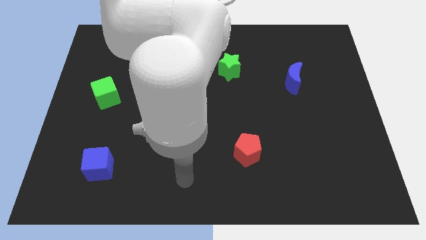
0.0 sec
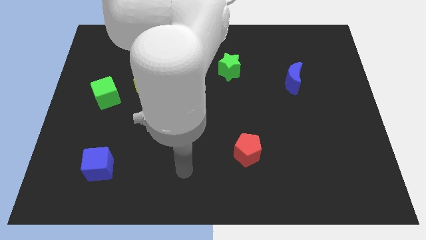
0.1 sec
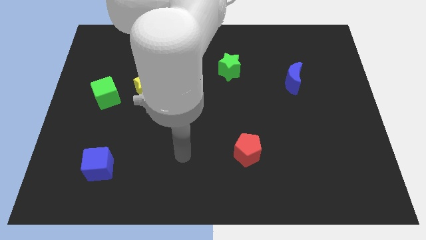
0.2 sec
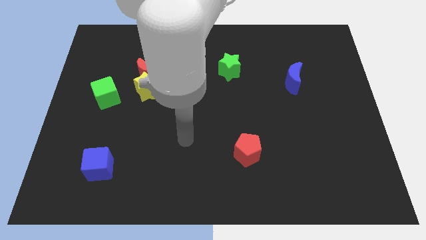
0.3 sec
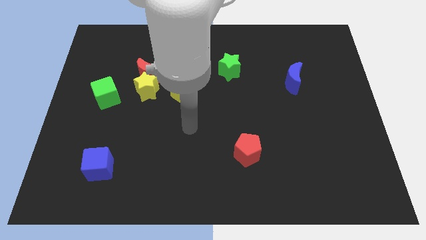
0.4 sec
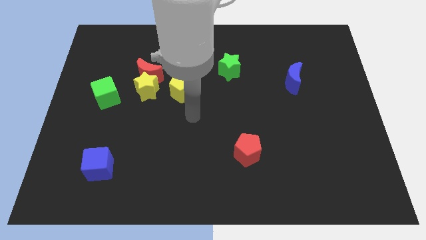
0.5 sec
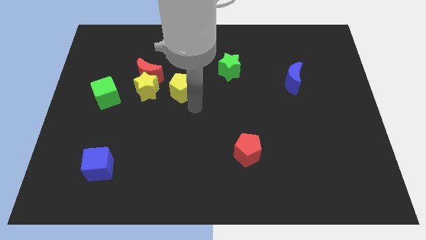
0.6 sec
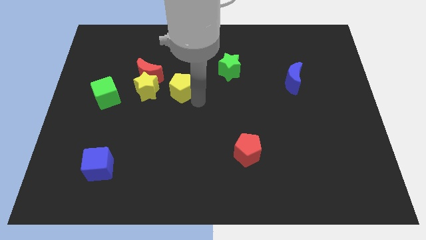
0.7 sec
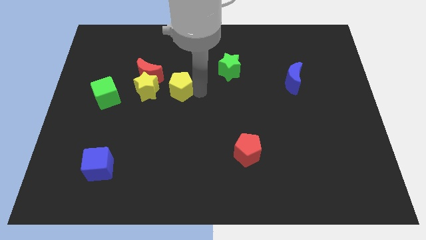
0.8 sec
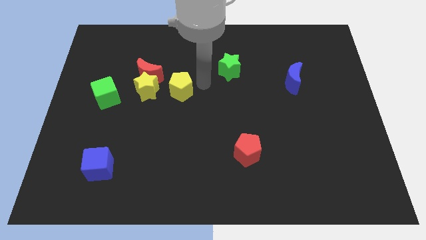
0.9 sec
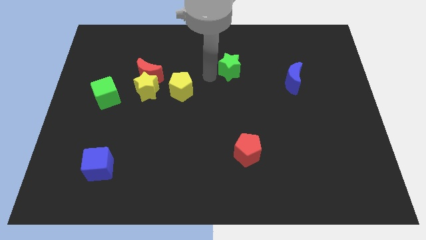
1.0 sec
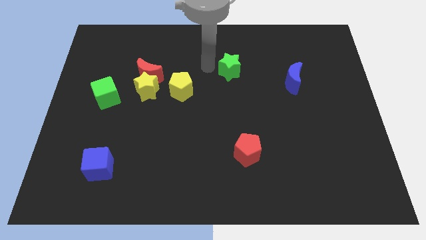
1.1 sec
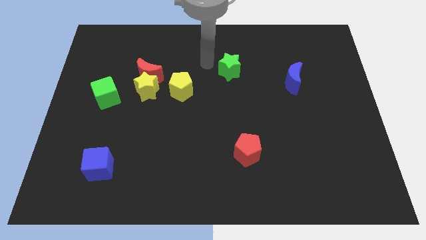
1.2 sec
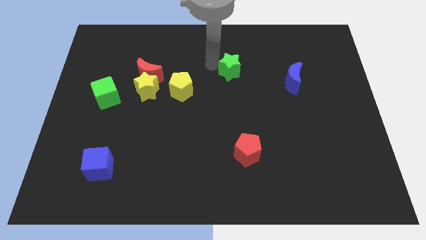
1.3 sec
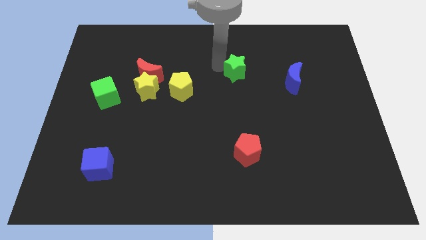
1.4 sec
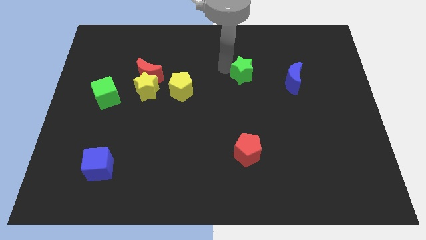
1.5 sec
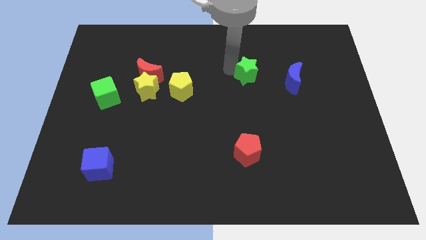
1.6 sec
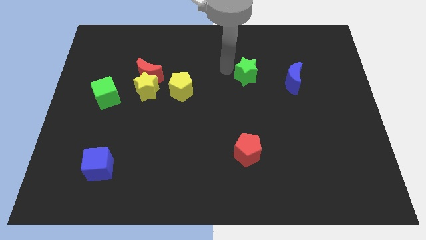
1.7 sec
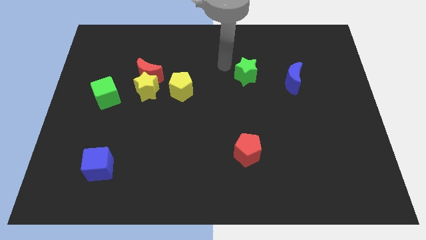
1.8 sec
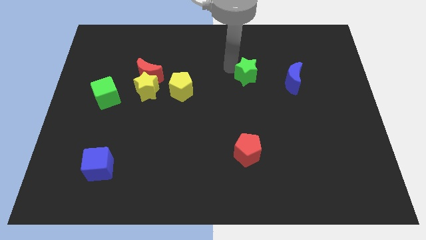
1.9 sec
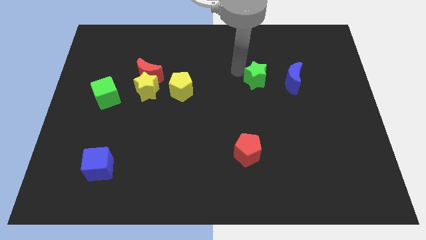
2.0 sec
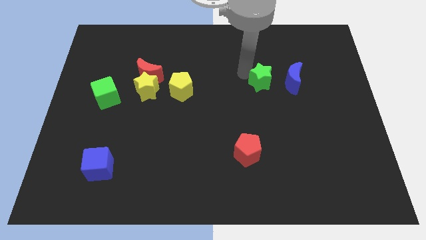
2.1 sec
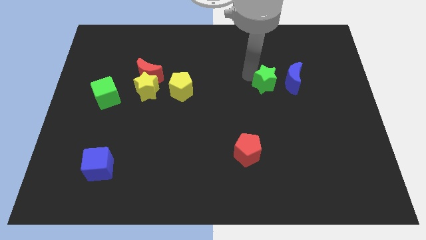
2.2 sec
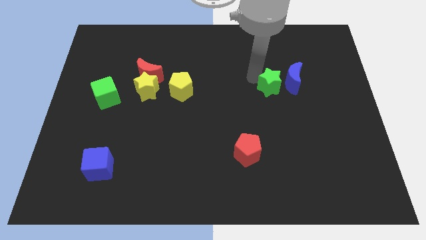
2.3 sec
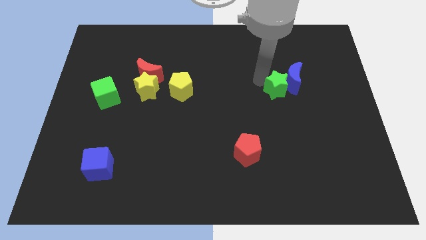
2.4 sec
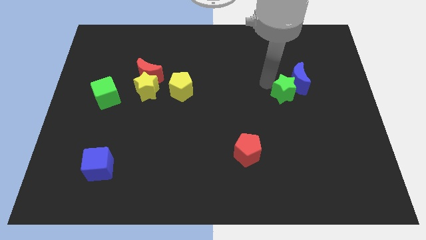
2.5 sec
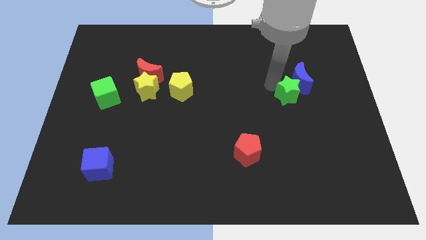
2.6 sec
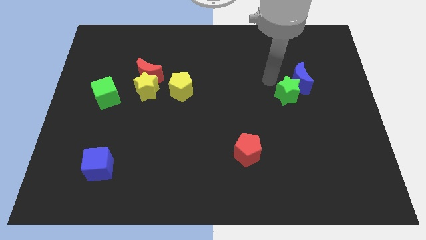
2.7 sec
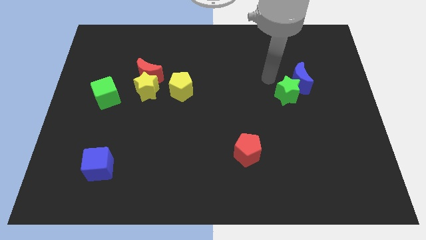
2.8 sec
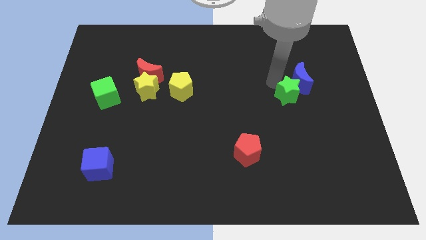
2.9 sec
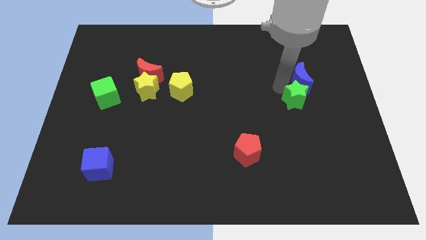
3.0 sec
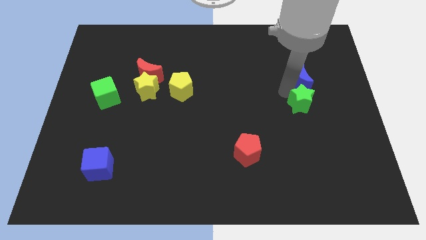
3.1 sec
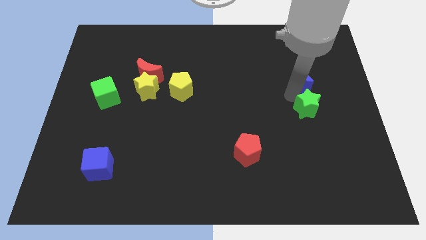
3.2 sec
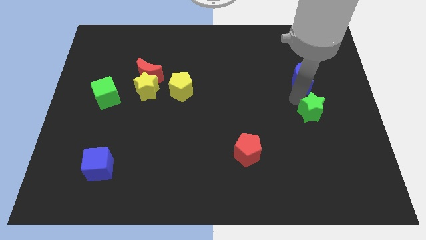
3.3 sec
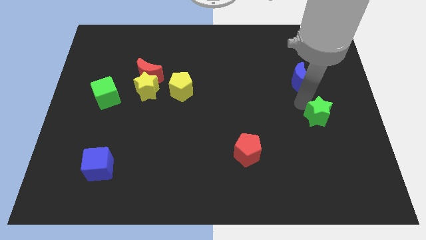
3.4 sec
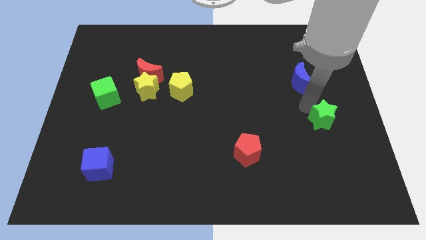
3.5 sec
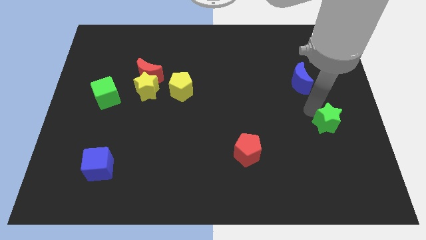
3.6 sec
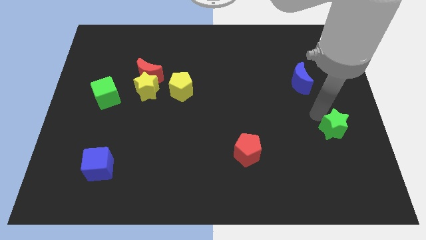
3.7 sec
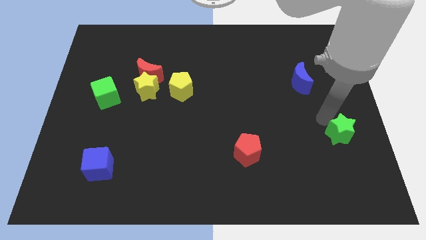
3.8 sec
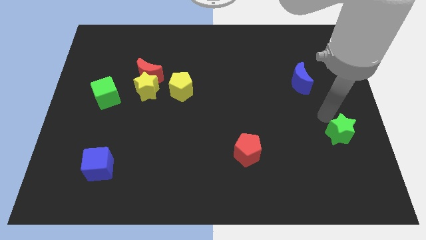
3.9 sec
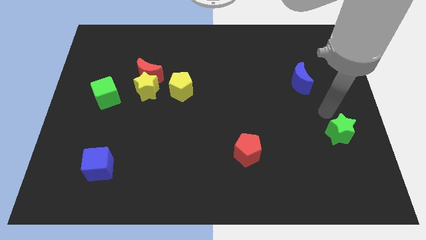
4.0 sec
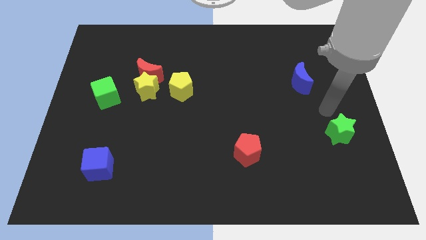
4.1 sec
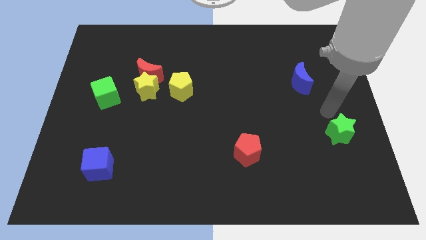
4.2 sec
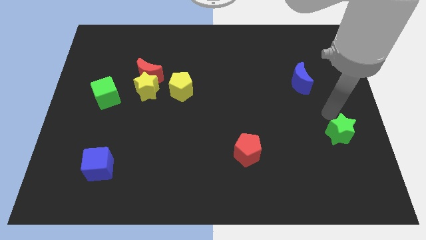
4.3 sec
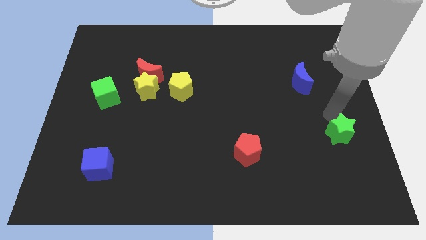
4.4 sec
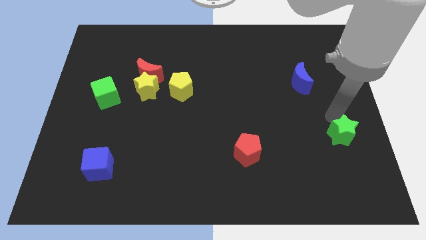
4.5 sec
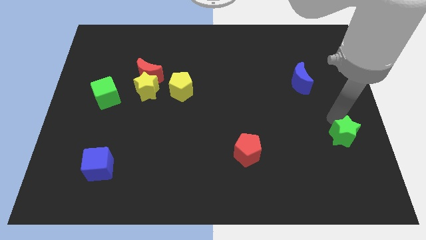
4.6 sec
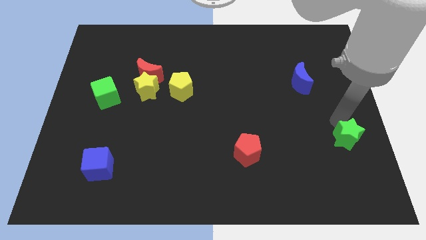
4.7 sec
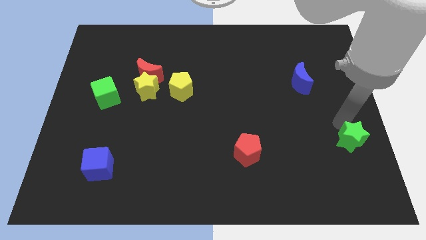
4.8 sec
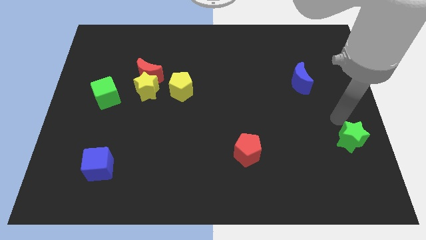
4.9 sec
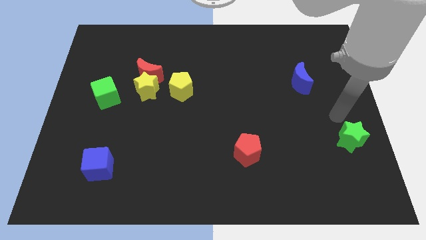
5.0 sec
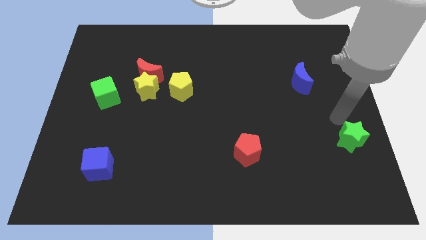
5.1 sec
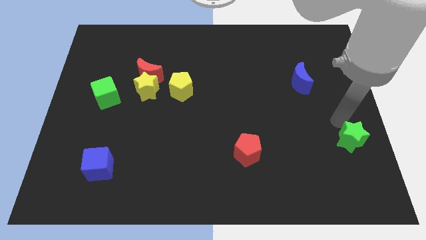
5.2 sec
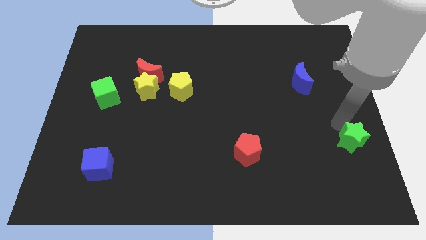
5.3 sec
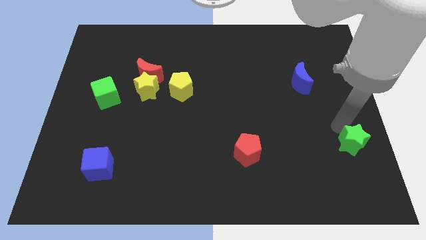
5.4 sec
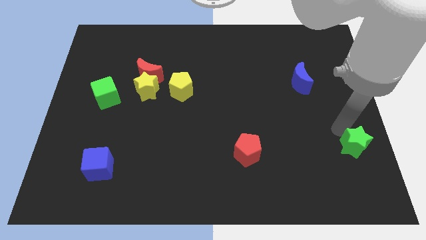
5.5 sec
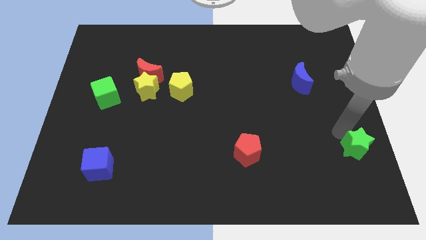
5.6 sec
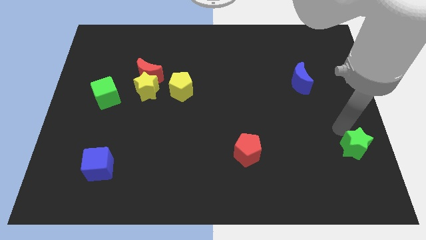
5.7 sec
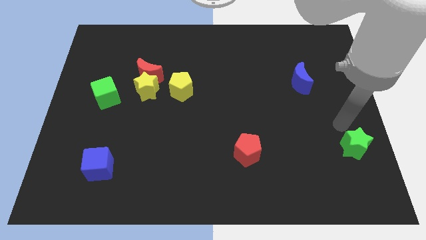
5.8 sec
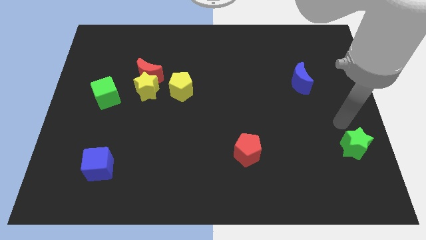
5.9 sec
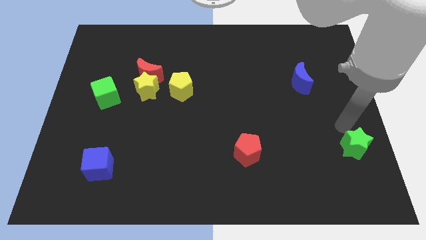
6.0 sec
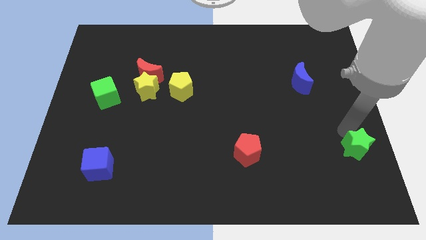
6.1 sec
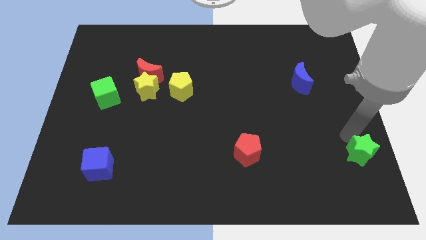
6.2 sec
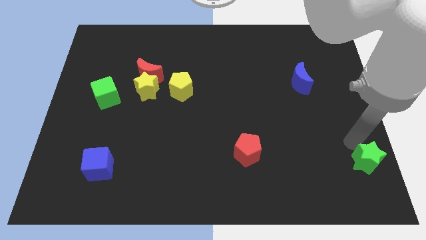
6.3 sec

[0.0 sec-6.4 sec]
push the green star to the bottom right of the board
